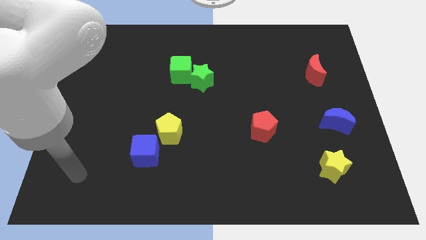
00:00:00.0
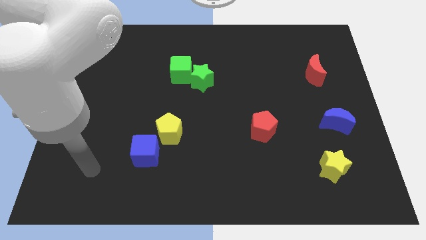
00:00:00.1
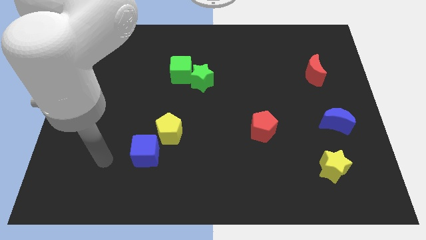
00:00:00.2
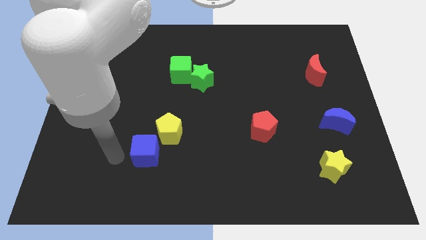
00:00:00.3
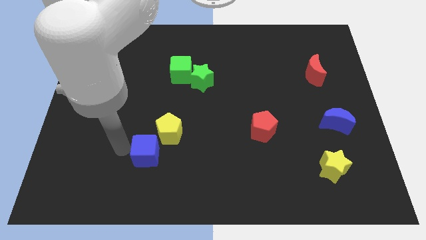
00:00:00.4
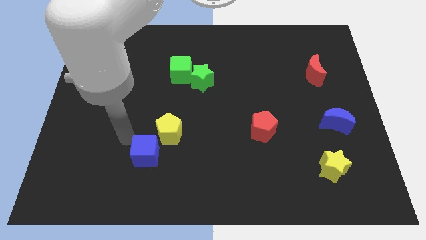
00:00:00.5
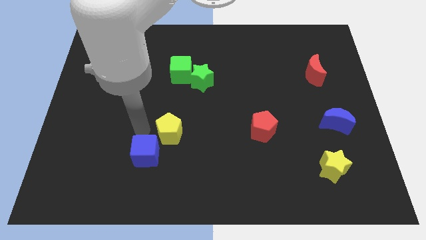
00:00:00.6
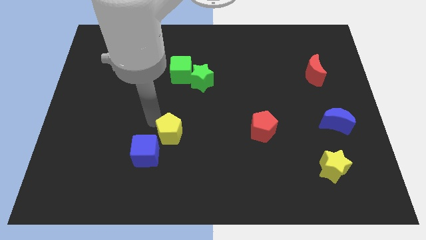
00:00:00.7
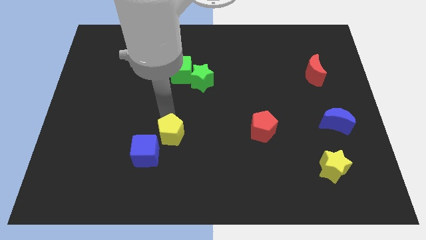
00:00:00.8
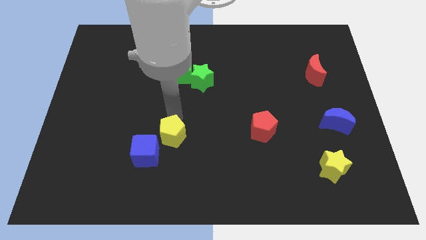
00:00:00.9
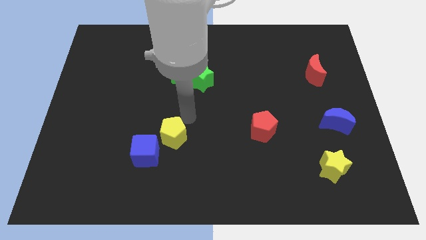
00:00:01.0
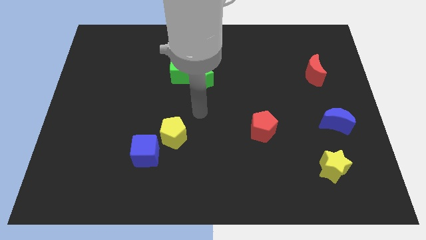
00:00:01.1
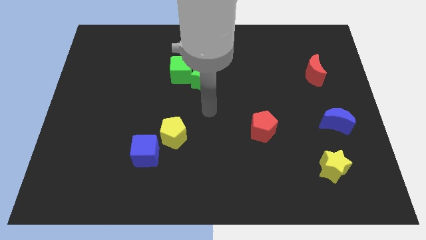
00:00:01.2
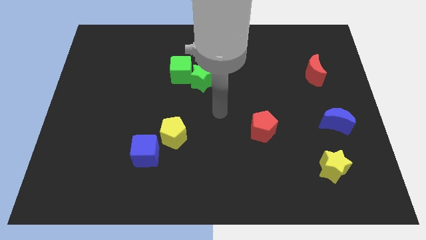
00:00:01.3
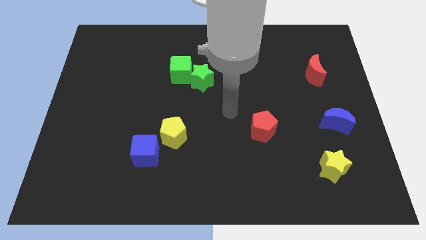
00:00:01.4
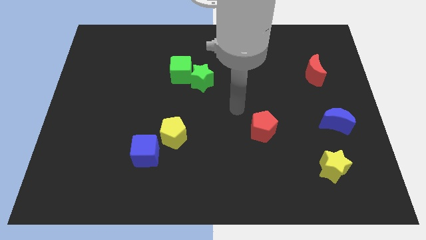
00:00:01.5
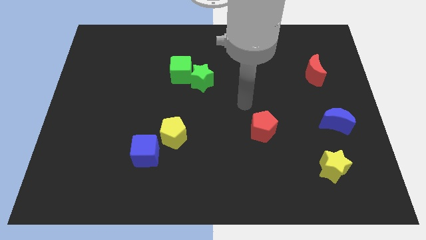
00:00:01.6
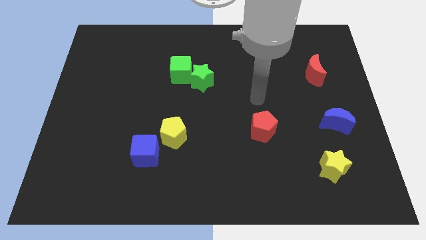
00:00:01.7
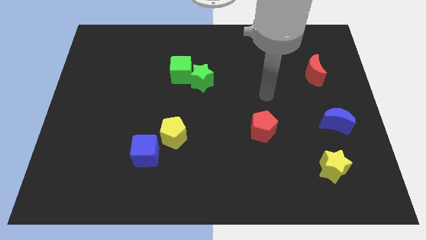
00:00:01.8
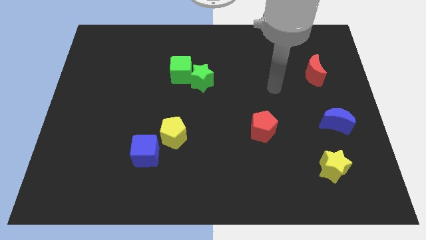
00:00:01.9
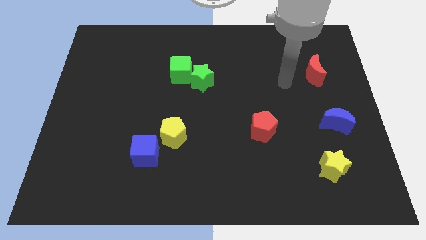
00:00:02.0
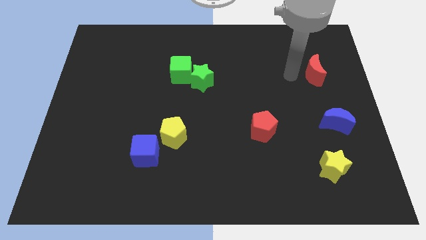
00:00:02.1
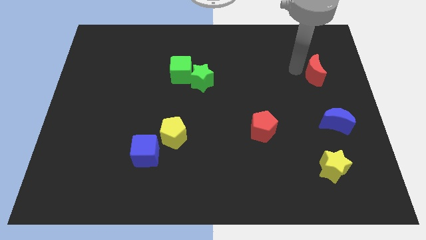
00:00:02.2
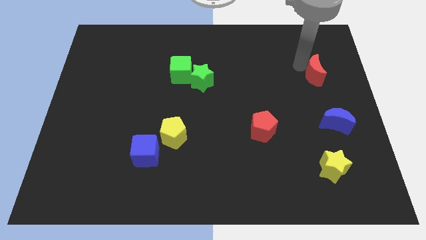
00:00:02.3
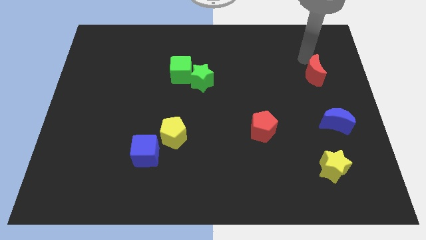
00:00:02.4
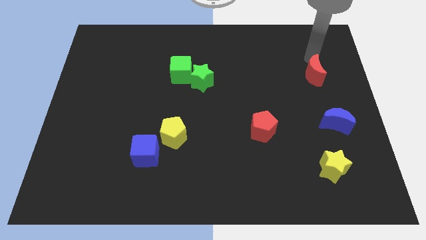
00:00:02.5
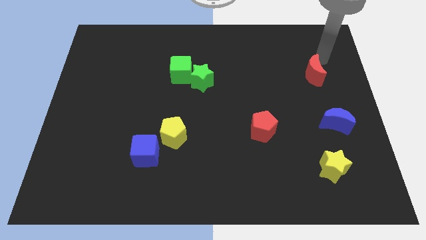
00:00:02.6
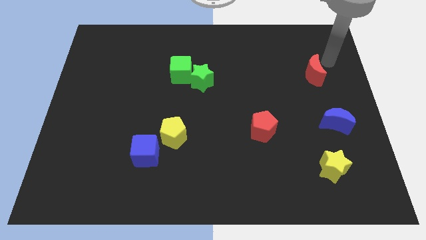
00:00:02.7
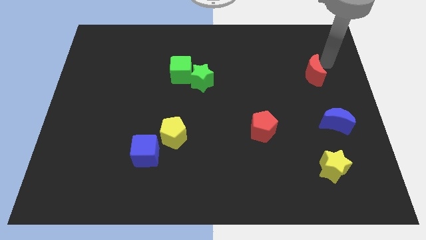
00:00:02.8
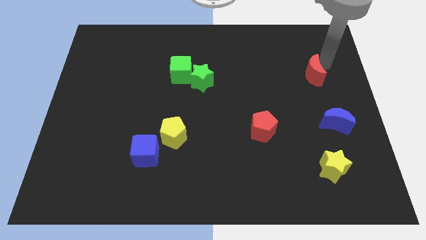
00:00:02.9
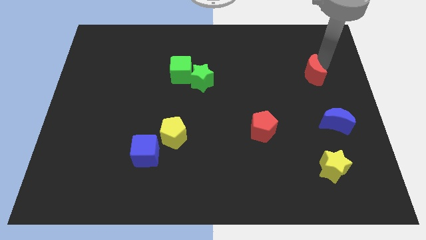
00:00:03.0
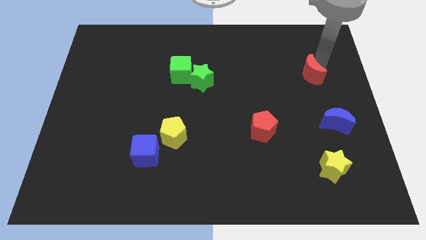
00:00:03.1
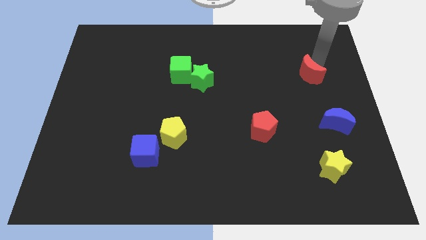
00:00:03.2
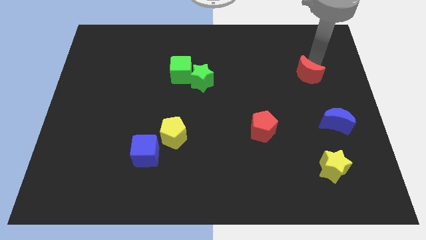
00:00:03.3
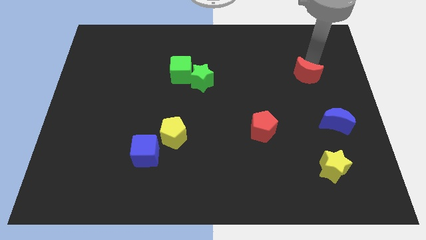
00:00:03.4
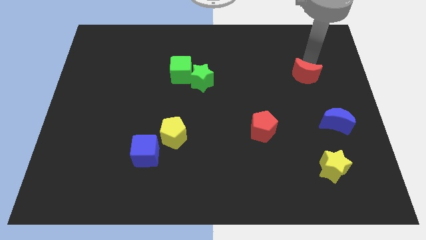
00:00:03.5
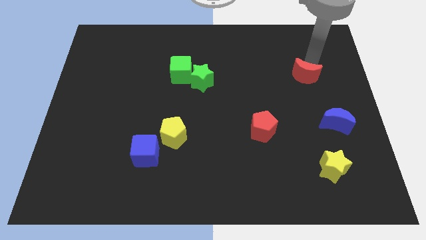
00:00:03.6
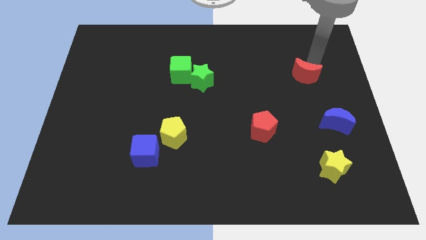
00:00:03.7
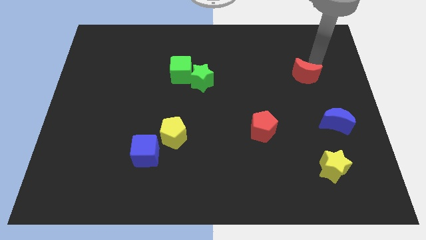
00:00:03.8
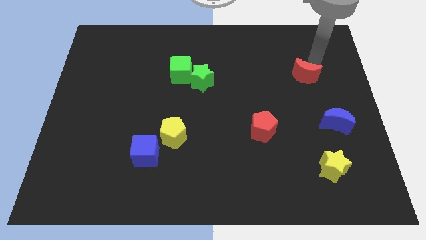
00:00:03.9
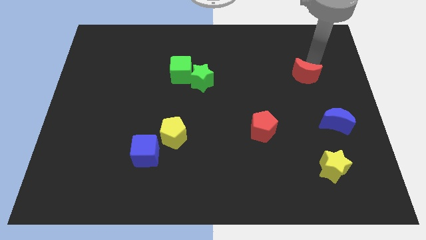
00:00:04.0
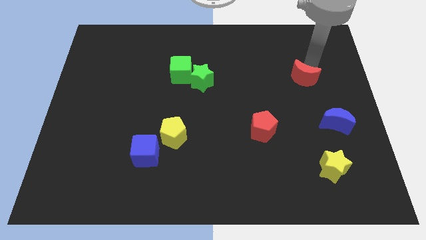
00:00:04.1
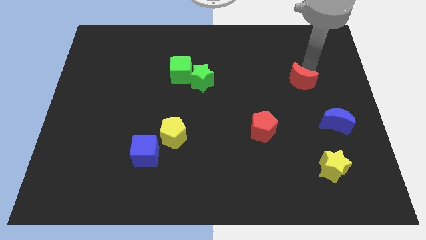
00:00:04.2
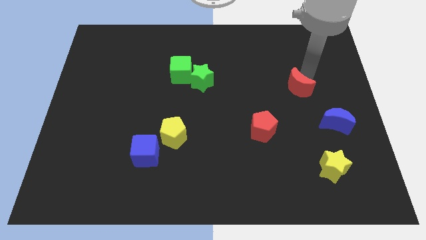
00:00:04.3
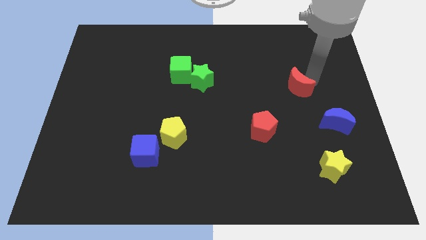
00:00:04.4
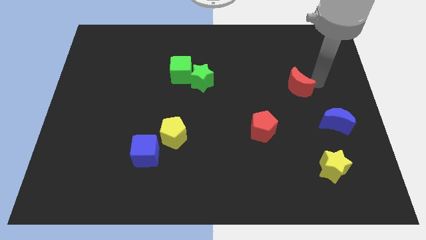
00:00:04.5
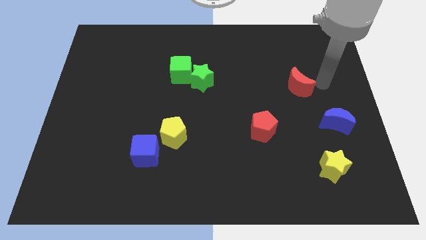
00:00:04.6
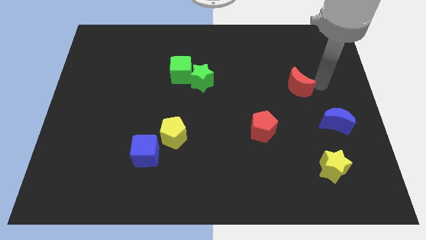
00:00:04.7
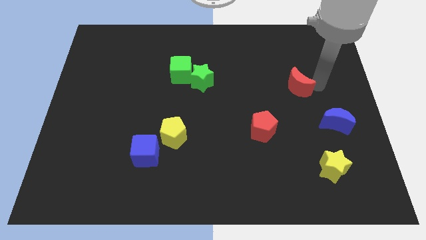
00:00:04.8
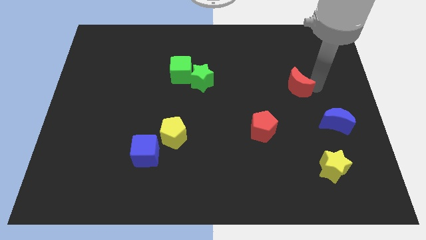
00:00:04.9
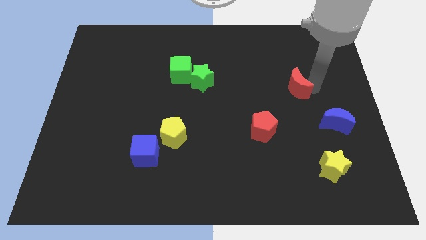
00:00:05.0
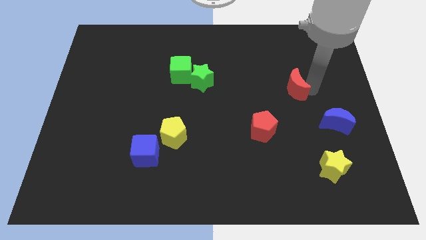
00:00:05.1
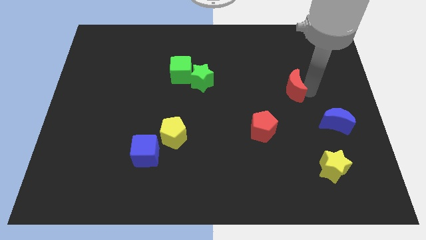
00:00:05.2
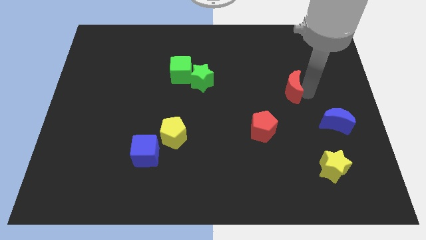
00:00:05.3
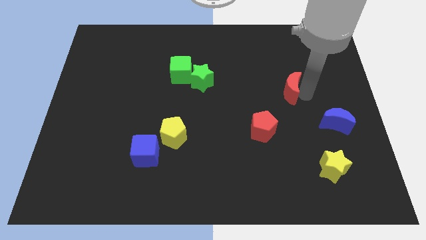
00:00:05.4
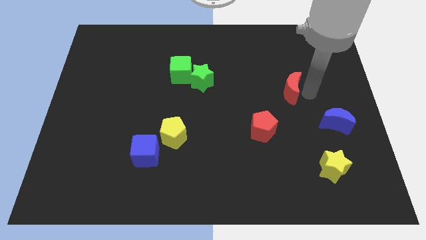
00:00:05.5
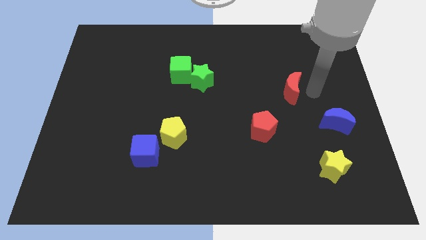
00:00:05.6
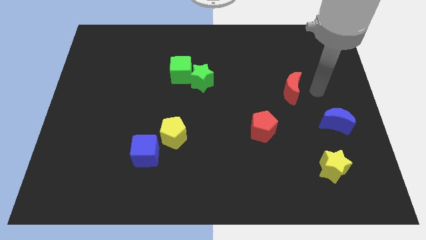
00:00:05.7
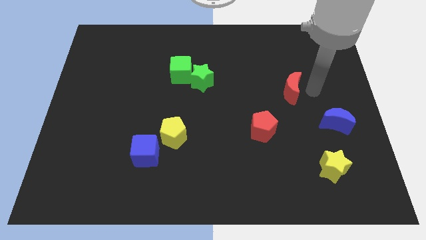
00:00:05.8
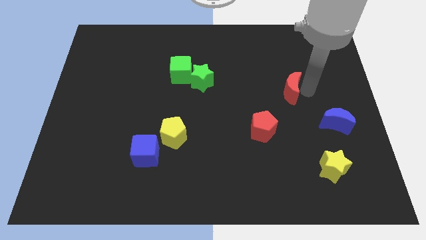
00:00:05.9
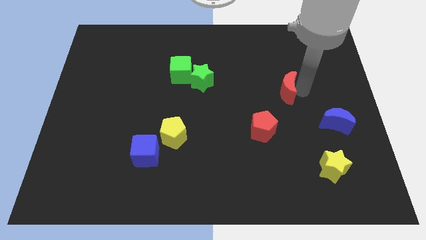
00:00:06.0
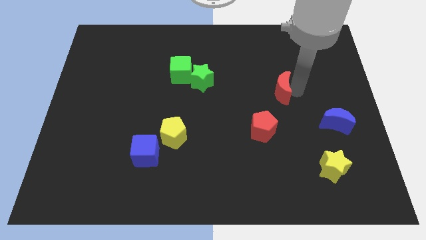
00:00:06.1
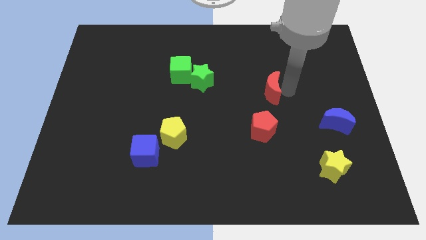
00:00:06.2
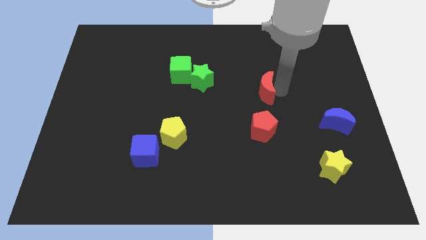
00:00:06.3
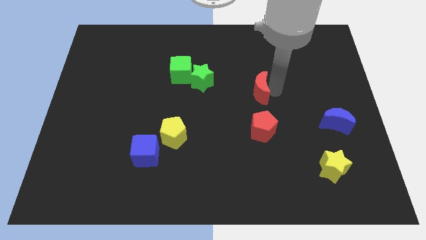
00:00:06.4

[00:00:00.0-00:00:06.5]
slide the red moon to the center
